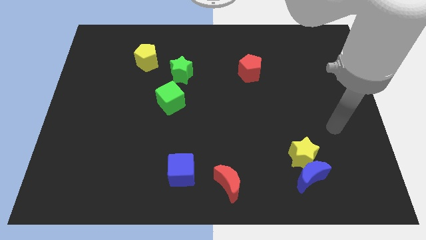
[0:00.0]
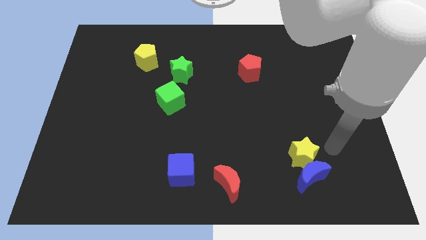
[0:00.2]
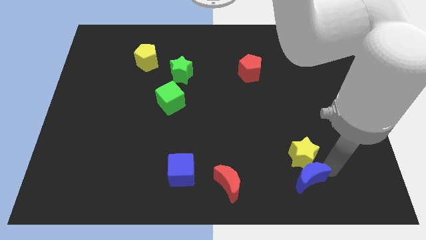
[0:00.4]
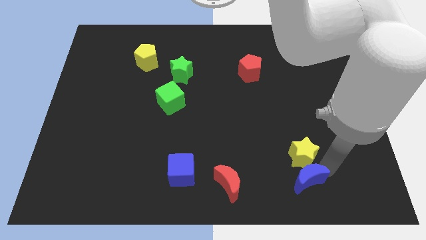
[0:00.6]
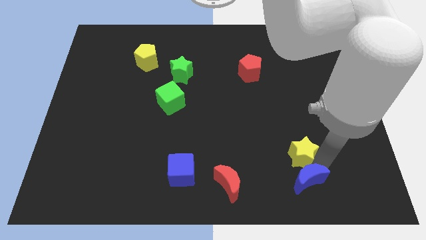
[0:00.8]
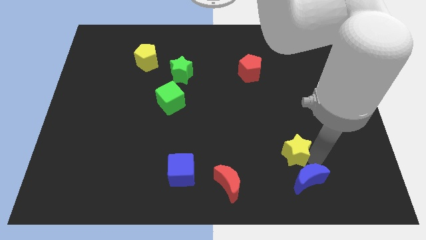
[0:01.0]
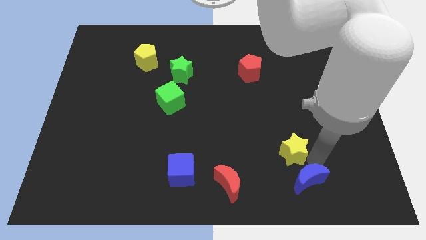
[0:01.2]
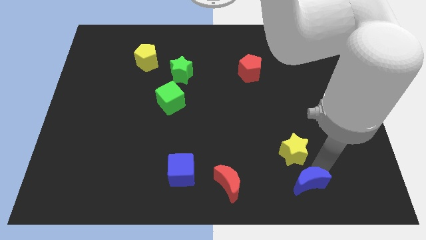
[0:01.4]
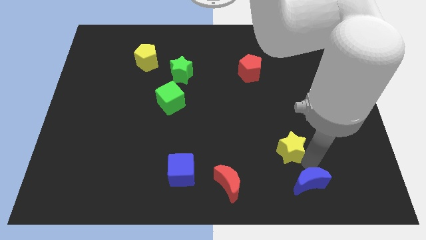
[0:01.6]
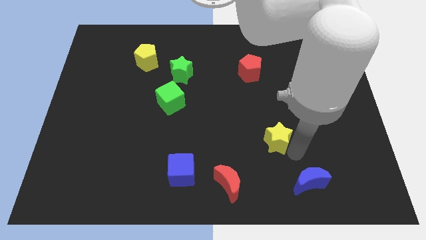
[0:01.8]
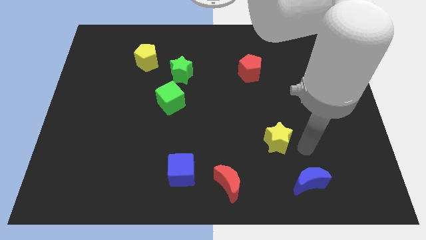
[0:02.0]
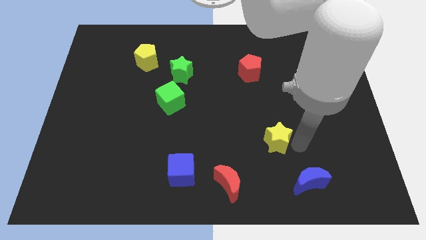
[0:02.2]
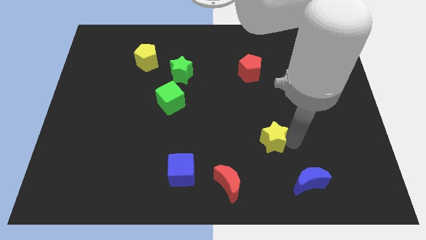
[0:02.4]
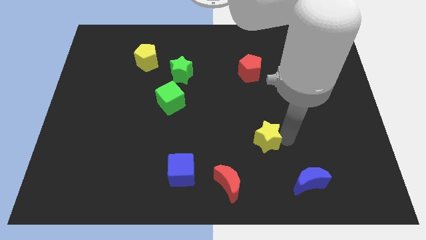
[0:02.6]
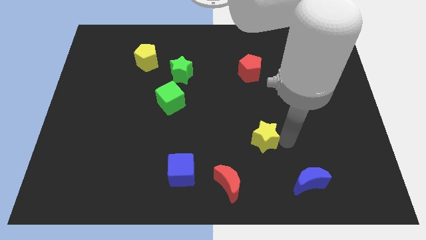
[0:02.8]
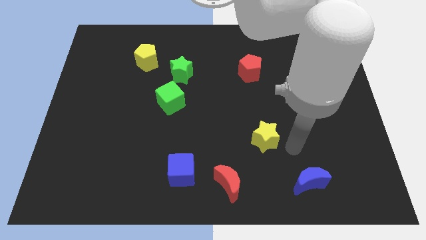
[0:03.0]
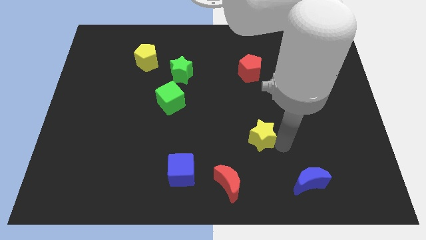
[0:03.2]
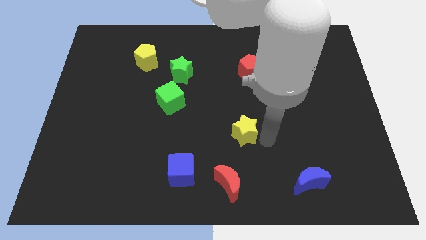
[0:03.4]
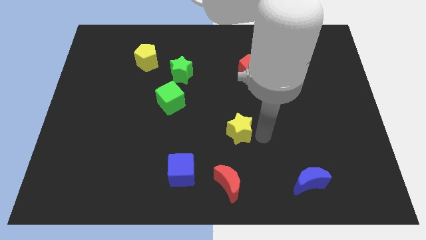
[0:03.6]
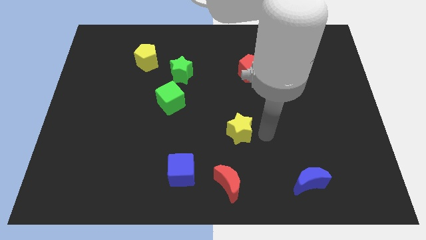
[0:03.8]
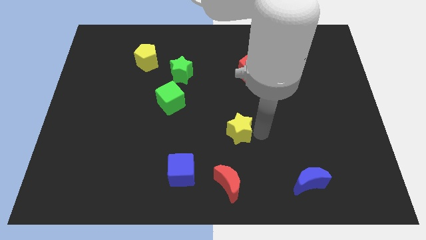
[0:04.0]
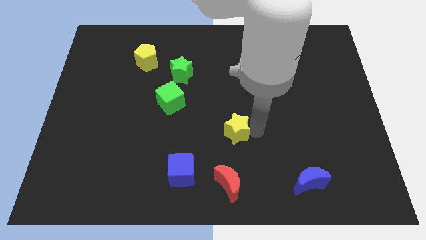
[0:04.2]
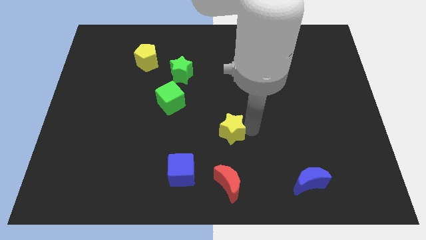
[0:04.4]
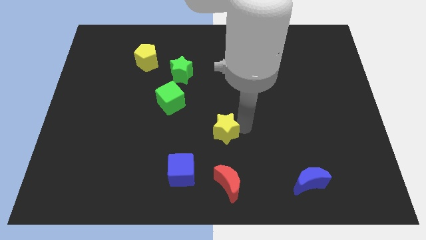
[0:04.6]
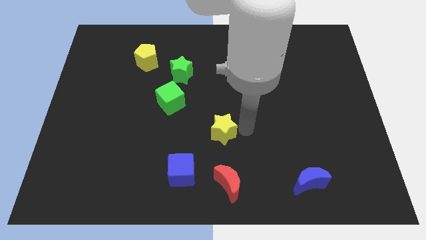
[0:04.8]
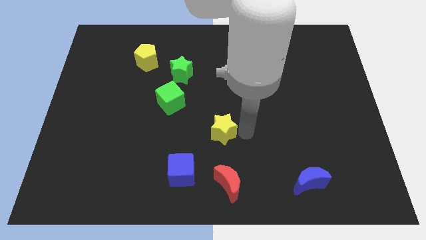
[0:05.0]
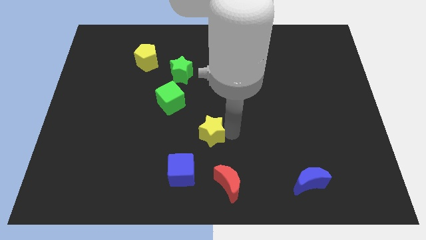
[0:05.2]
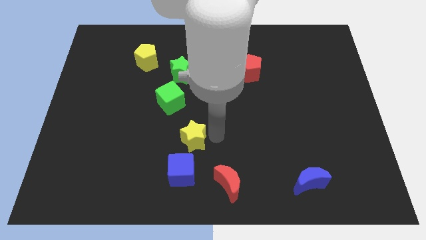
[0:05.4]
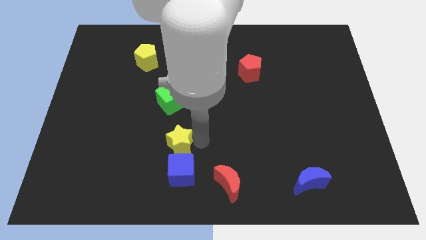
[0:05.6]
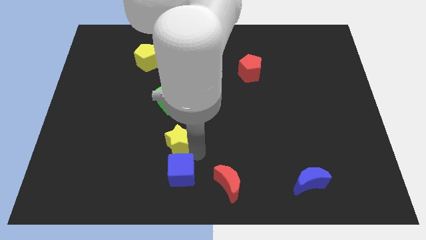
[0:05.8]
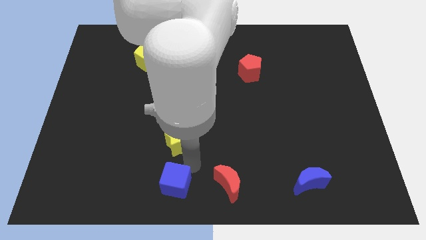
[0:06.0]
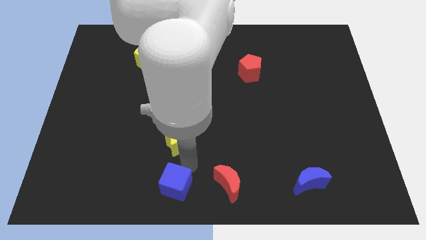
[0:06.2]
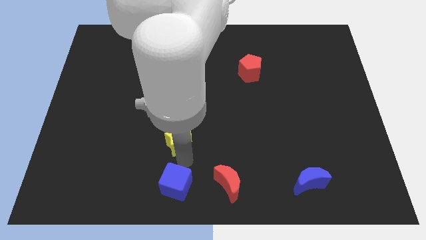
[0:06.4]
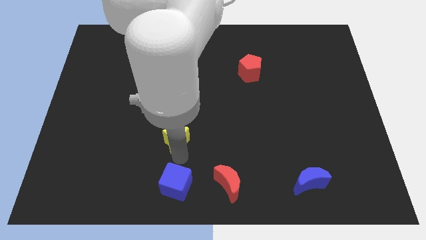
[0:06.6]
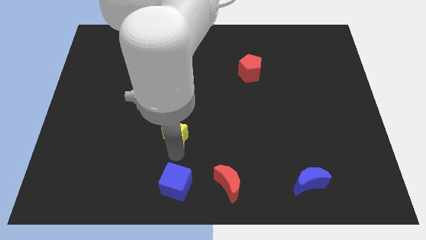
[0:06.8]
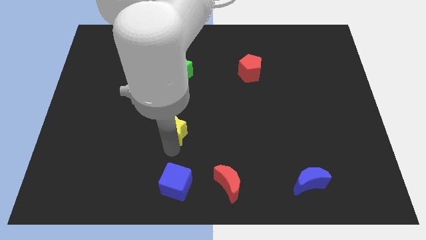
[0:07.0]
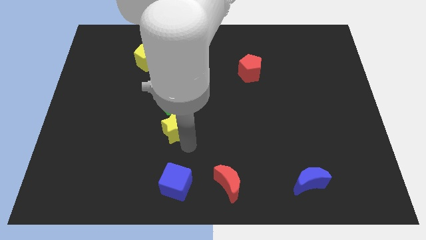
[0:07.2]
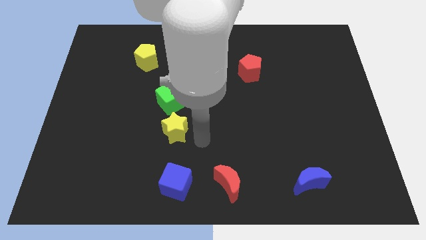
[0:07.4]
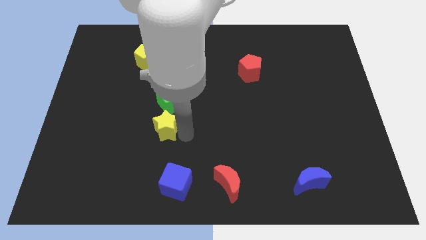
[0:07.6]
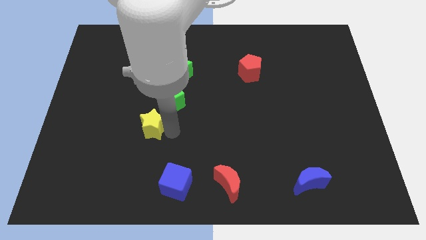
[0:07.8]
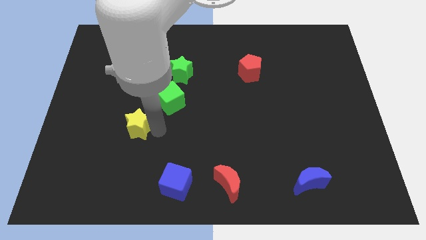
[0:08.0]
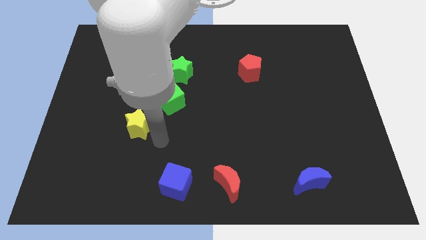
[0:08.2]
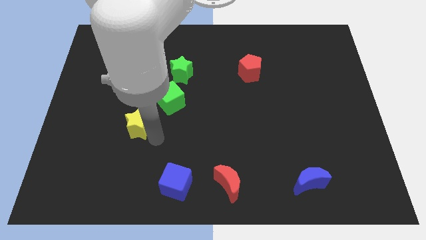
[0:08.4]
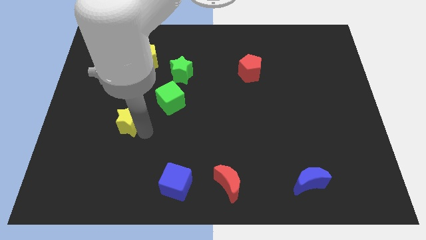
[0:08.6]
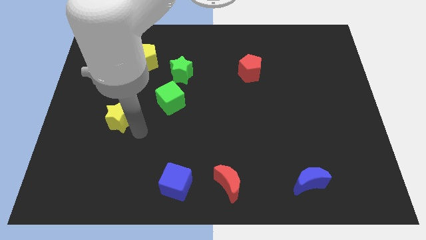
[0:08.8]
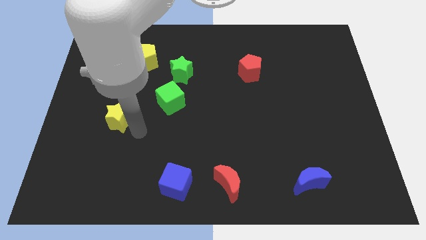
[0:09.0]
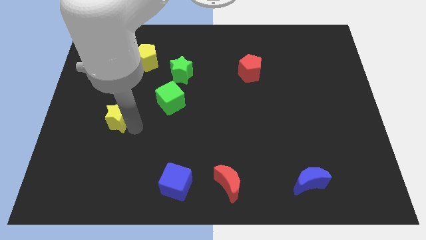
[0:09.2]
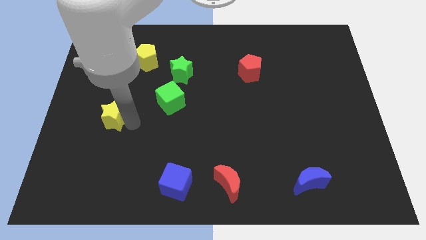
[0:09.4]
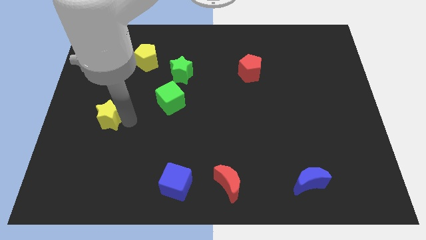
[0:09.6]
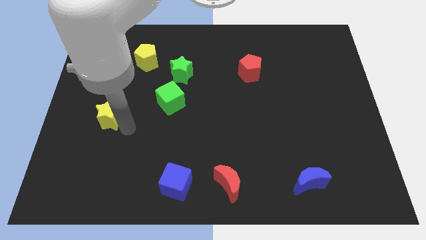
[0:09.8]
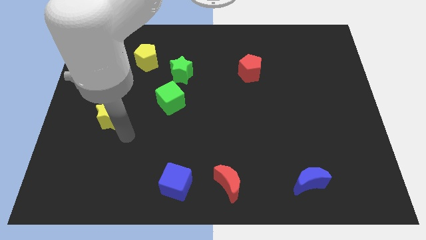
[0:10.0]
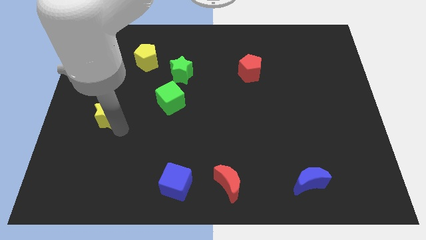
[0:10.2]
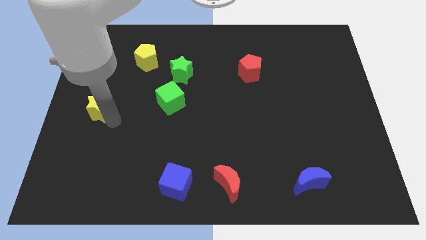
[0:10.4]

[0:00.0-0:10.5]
slide the yellow star to the left side of the board
